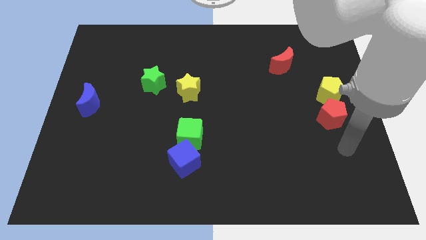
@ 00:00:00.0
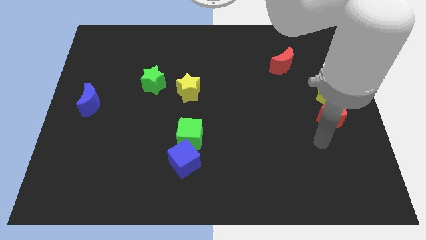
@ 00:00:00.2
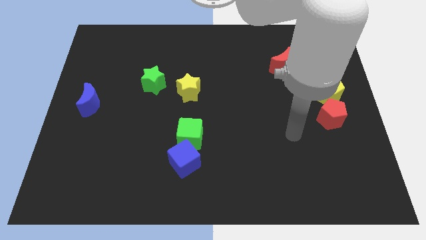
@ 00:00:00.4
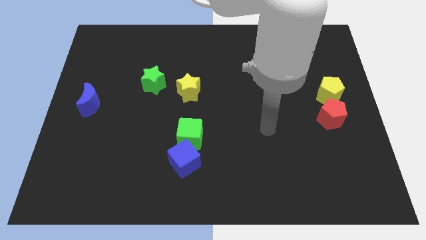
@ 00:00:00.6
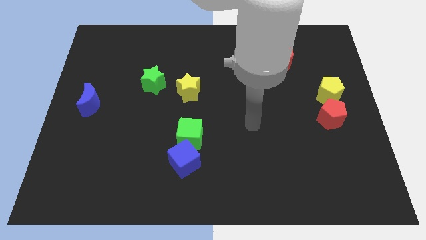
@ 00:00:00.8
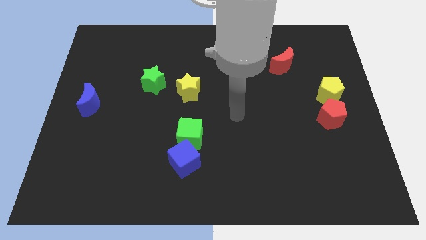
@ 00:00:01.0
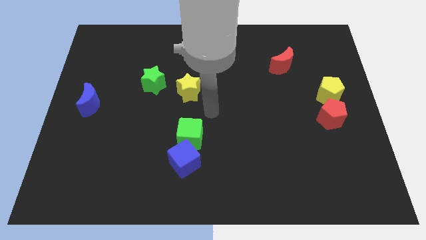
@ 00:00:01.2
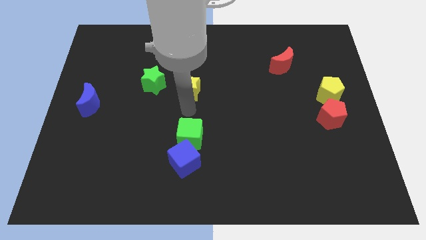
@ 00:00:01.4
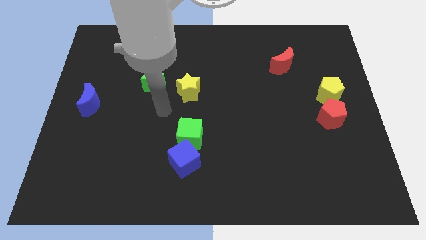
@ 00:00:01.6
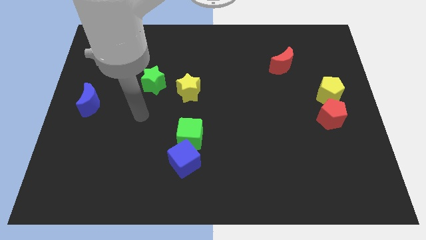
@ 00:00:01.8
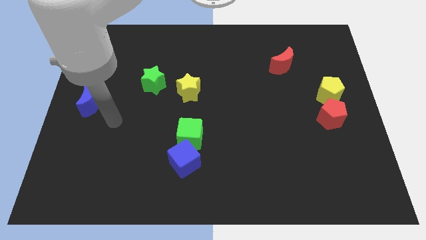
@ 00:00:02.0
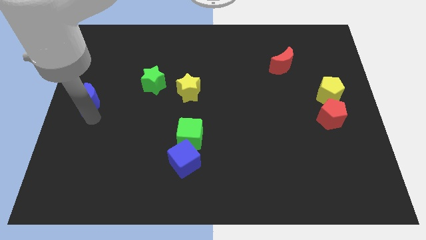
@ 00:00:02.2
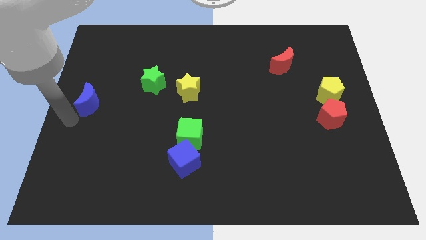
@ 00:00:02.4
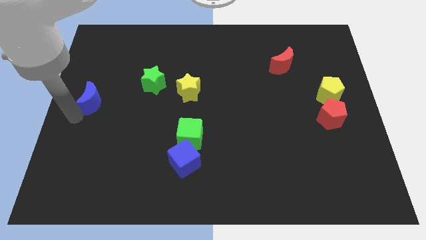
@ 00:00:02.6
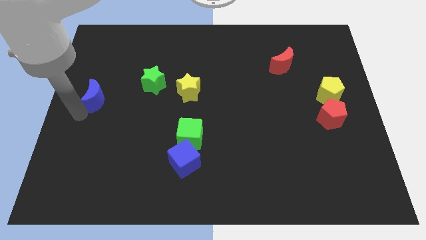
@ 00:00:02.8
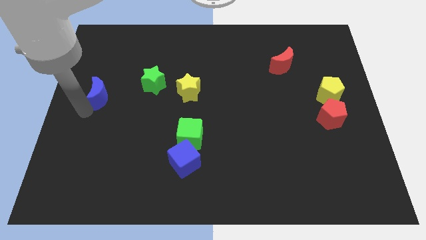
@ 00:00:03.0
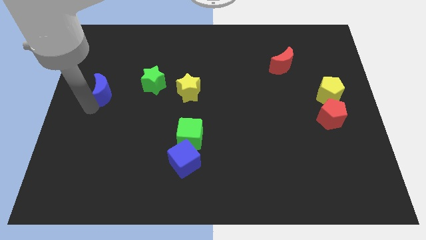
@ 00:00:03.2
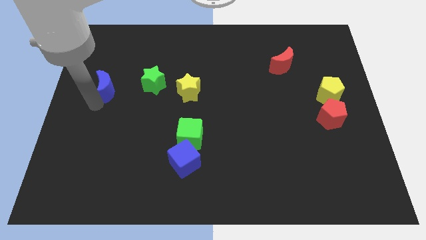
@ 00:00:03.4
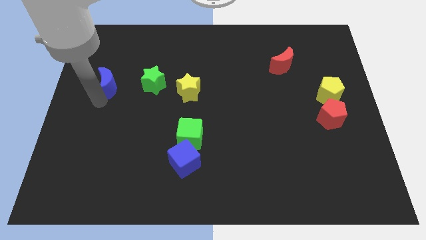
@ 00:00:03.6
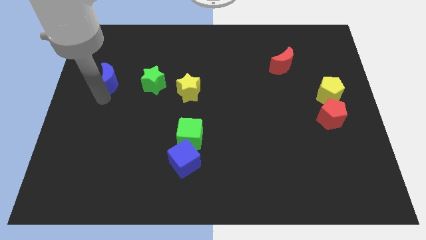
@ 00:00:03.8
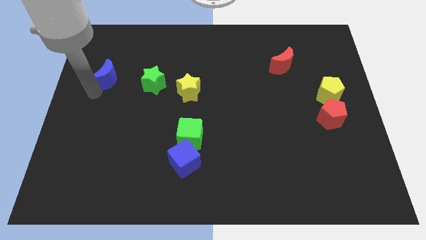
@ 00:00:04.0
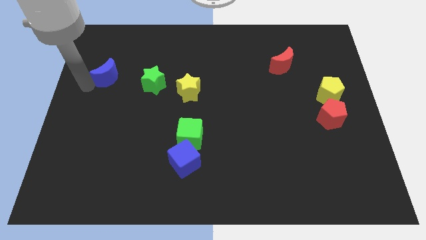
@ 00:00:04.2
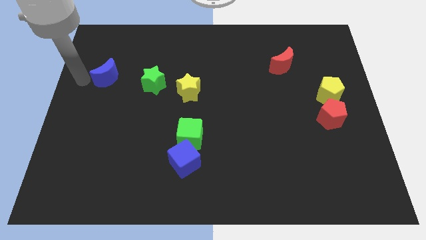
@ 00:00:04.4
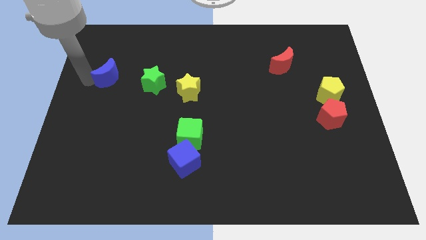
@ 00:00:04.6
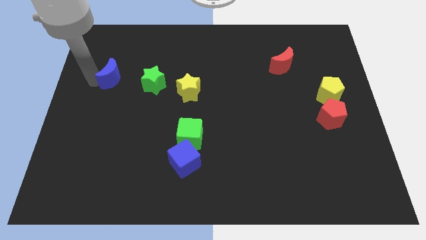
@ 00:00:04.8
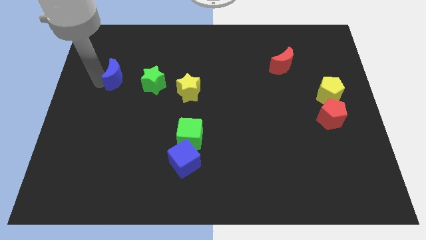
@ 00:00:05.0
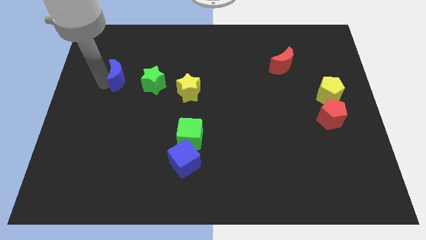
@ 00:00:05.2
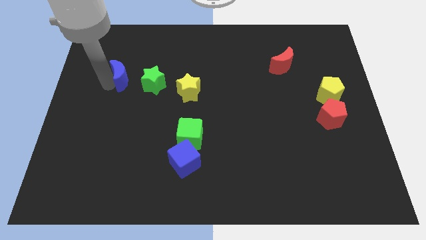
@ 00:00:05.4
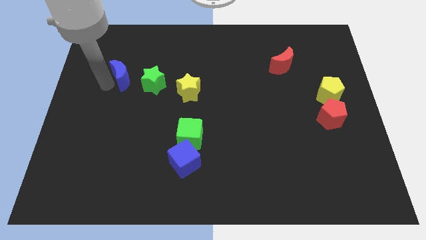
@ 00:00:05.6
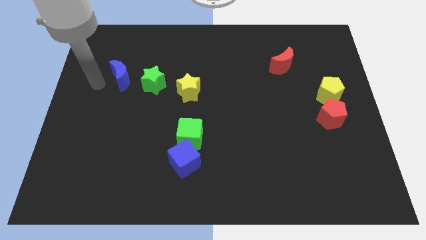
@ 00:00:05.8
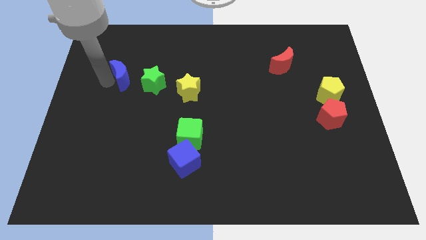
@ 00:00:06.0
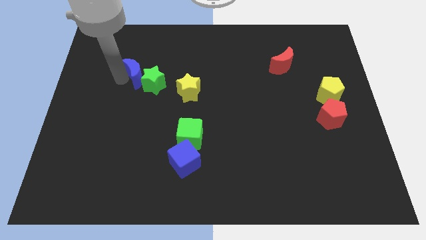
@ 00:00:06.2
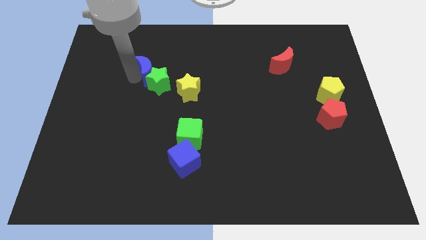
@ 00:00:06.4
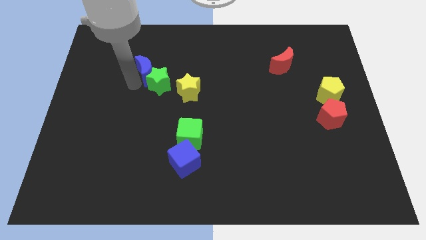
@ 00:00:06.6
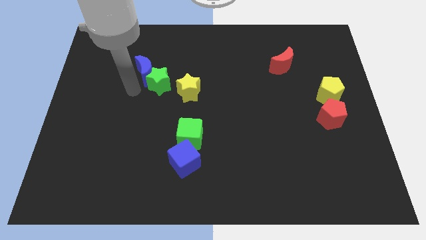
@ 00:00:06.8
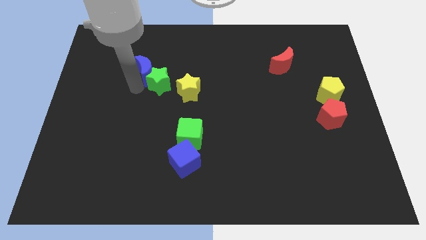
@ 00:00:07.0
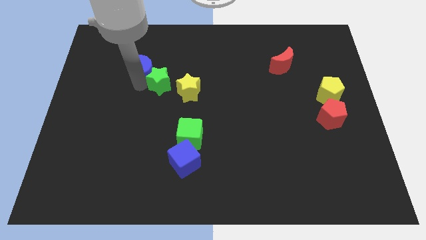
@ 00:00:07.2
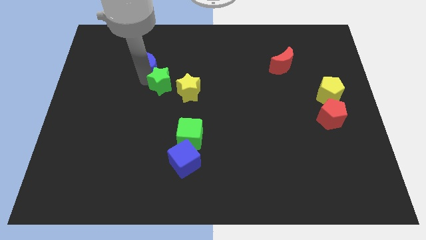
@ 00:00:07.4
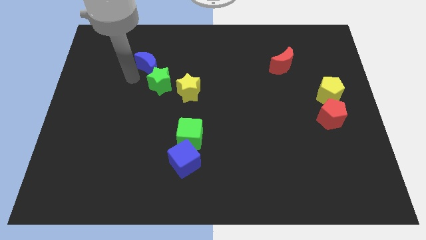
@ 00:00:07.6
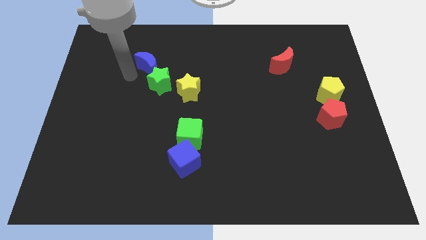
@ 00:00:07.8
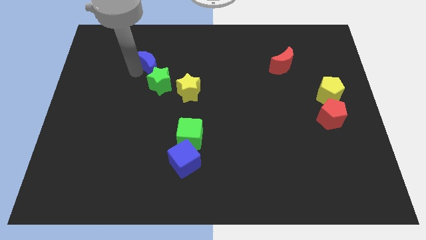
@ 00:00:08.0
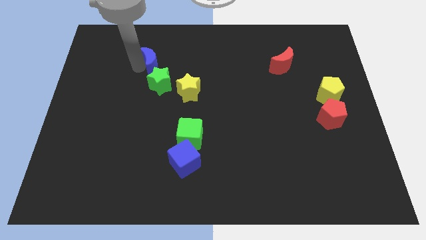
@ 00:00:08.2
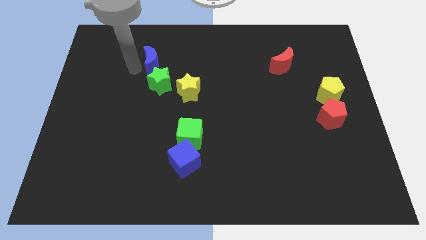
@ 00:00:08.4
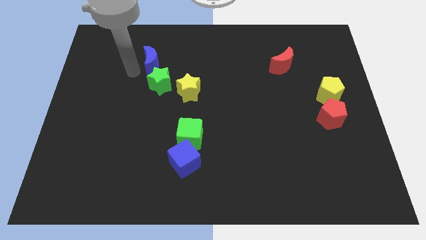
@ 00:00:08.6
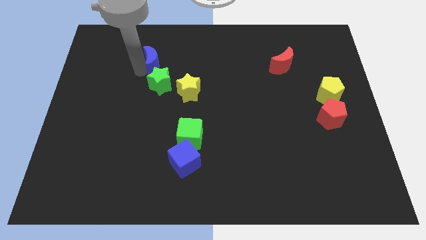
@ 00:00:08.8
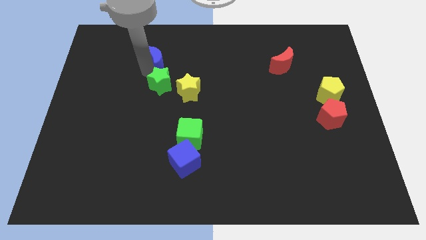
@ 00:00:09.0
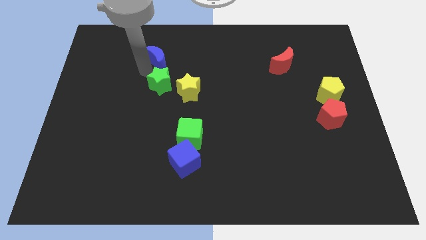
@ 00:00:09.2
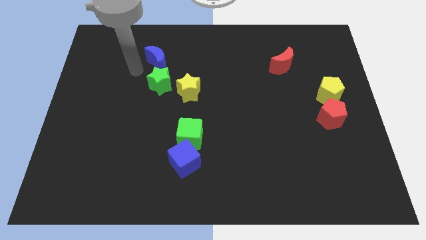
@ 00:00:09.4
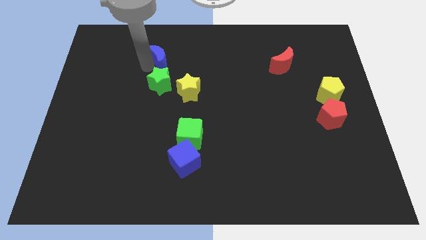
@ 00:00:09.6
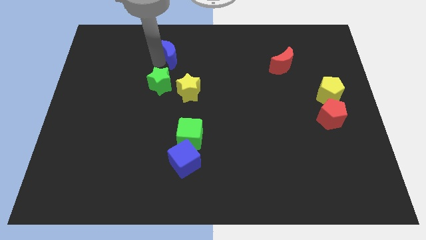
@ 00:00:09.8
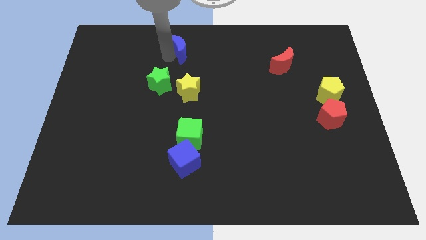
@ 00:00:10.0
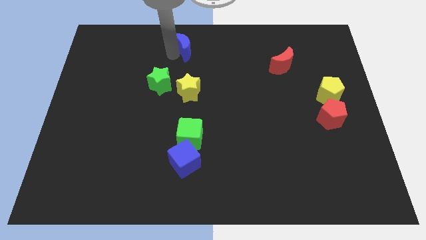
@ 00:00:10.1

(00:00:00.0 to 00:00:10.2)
slide the blue moon to the top

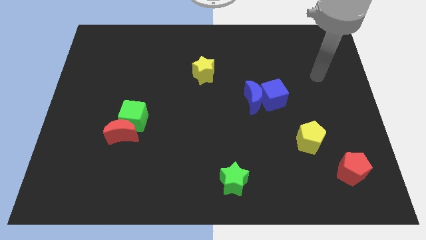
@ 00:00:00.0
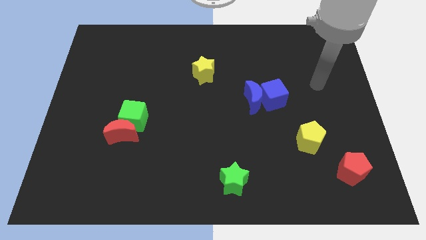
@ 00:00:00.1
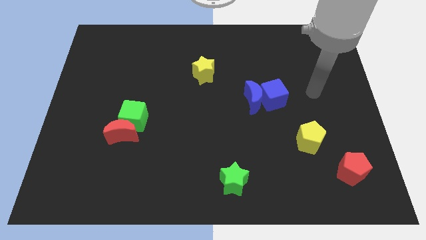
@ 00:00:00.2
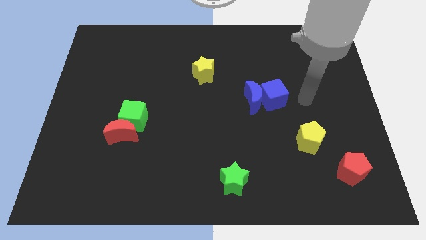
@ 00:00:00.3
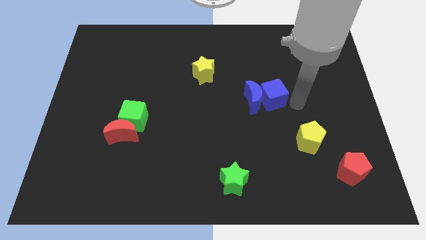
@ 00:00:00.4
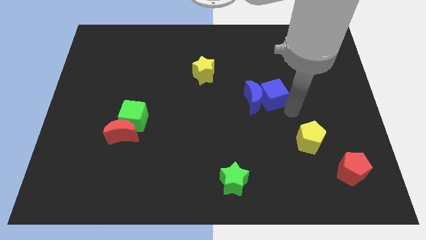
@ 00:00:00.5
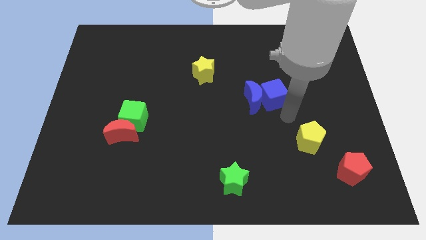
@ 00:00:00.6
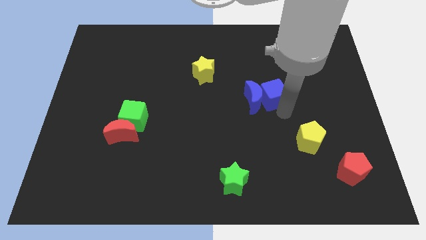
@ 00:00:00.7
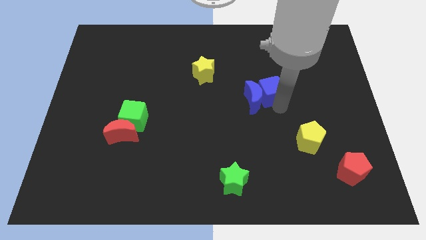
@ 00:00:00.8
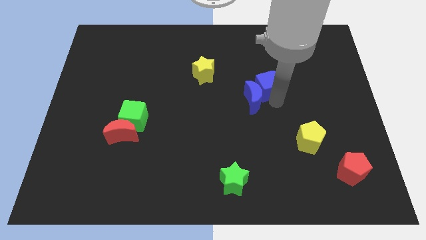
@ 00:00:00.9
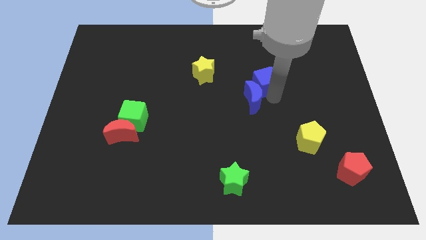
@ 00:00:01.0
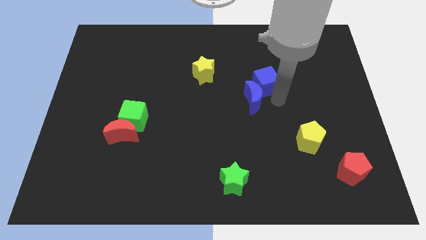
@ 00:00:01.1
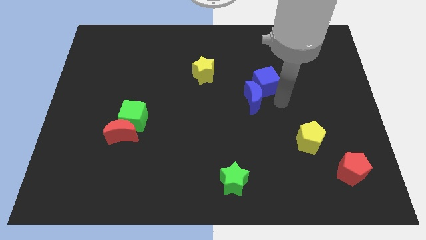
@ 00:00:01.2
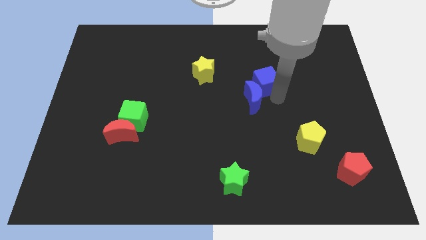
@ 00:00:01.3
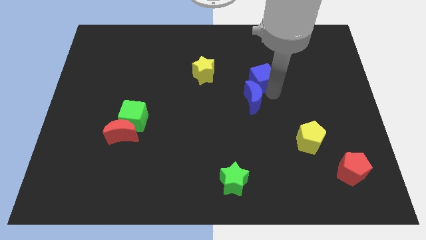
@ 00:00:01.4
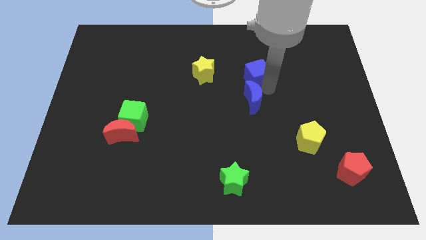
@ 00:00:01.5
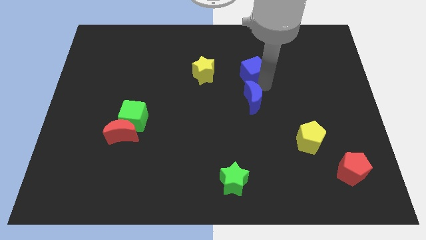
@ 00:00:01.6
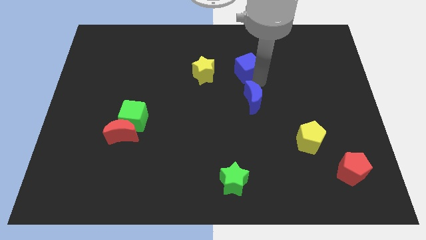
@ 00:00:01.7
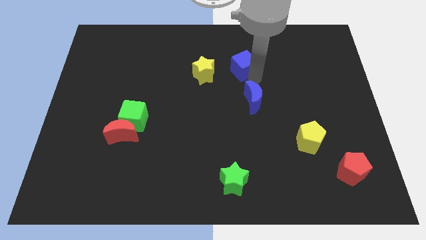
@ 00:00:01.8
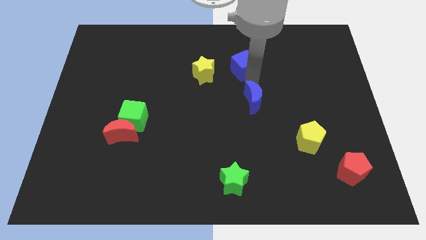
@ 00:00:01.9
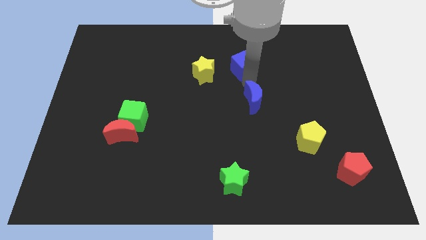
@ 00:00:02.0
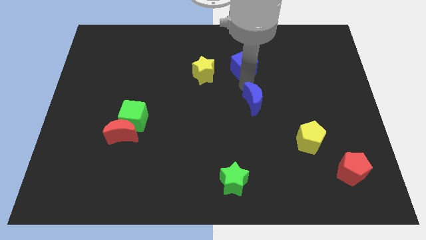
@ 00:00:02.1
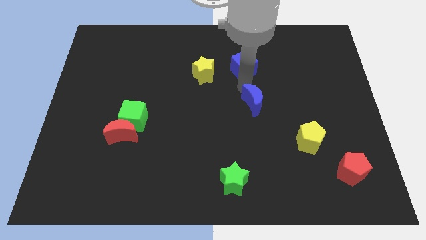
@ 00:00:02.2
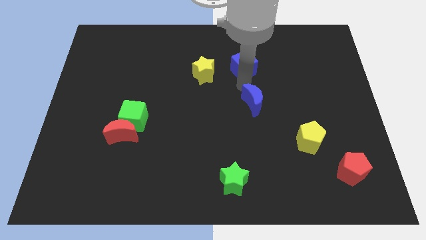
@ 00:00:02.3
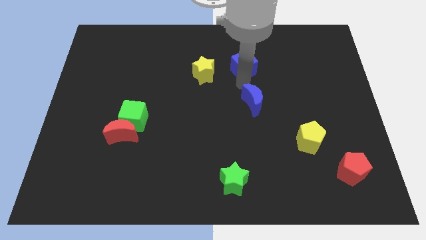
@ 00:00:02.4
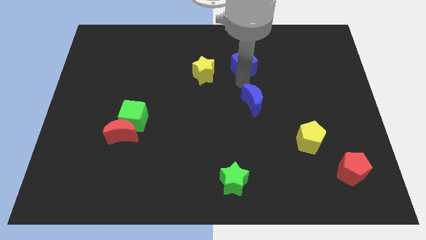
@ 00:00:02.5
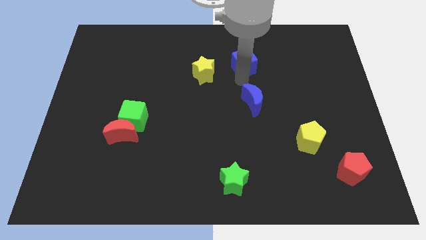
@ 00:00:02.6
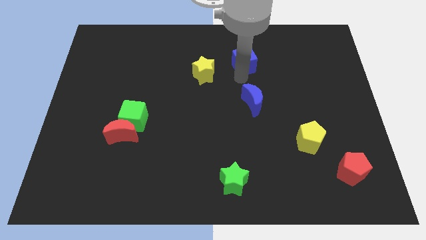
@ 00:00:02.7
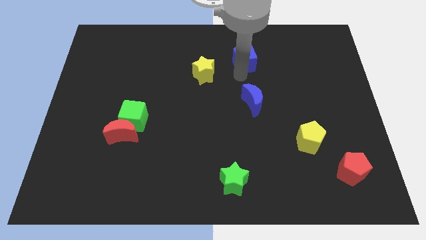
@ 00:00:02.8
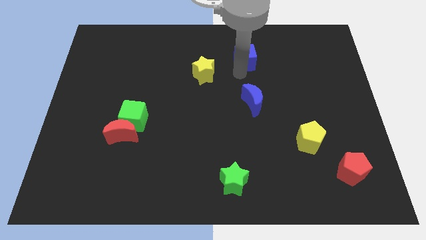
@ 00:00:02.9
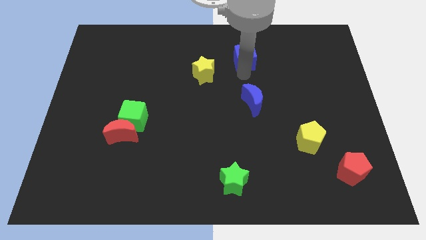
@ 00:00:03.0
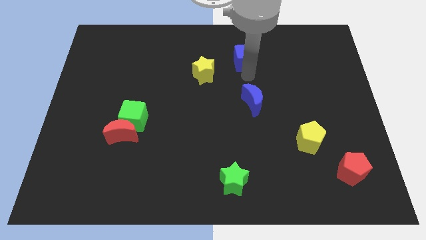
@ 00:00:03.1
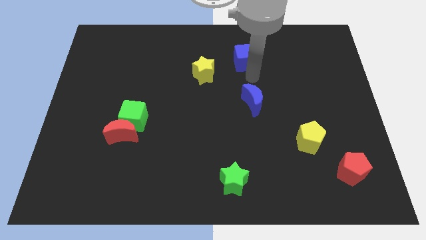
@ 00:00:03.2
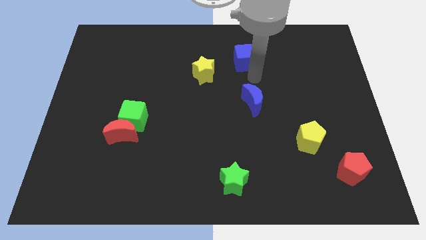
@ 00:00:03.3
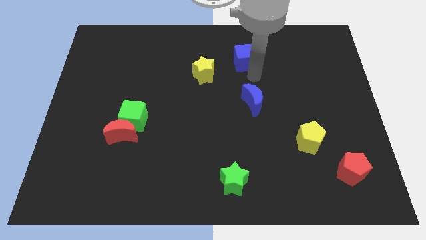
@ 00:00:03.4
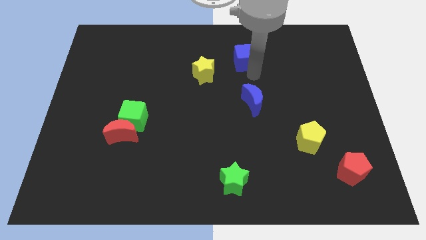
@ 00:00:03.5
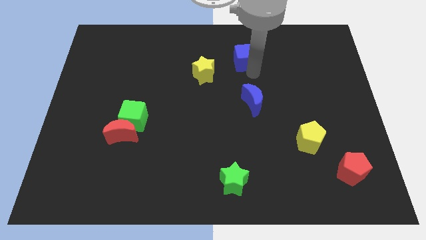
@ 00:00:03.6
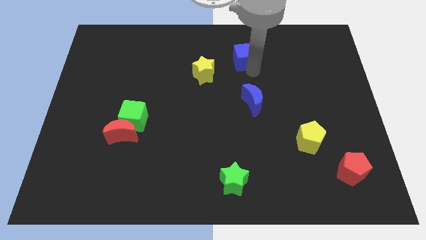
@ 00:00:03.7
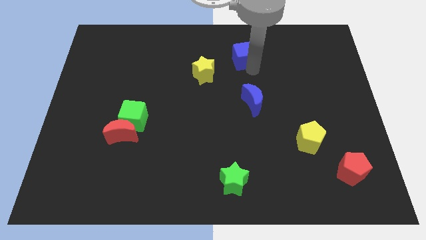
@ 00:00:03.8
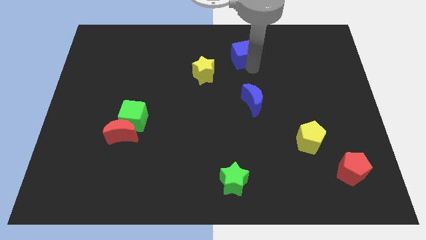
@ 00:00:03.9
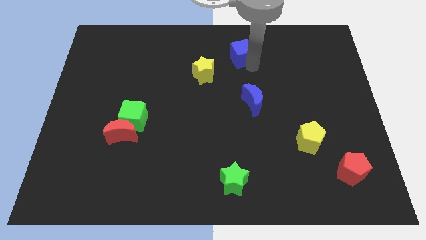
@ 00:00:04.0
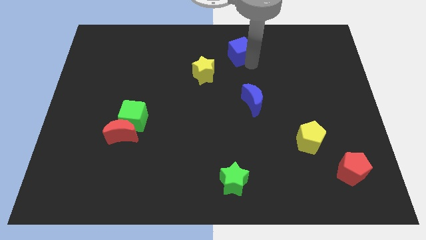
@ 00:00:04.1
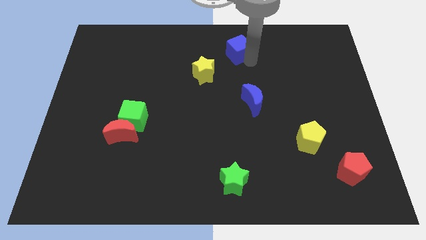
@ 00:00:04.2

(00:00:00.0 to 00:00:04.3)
push the blue cube to the top side
